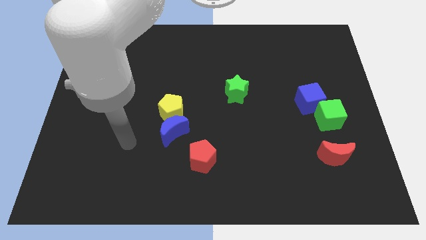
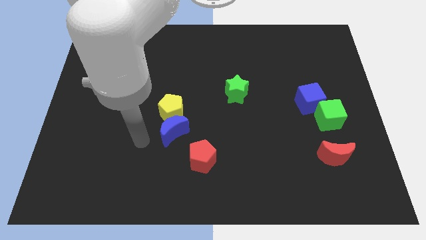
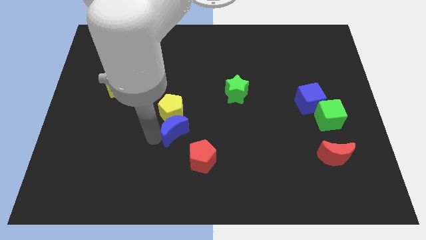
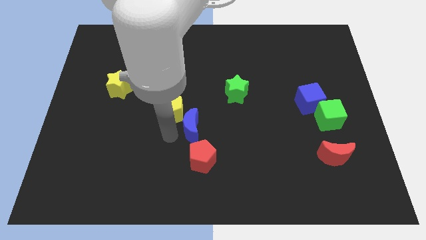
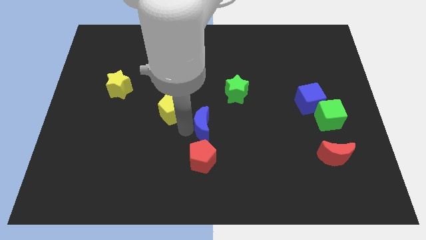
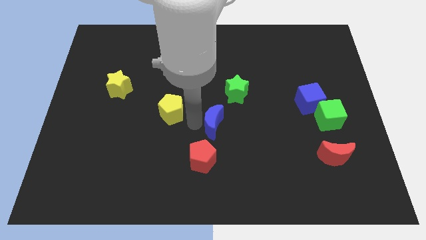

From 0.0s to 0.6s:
move the yellow pentagon away from the blue moon

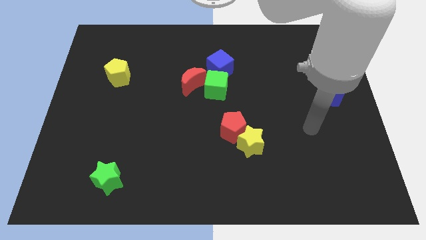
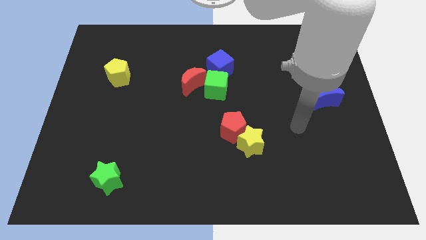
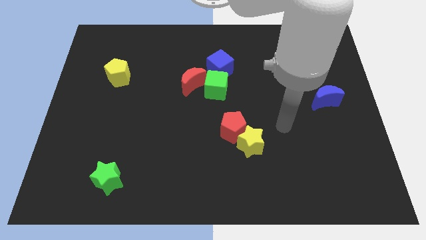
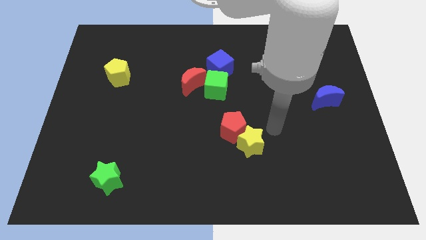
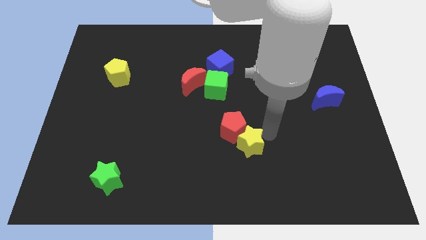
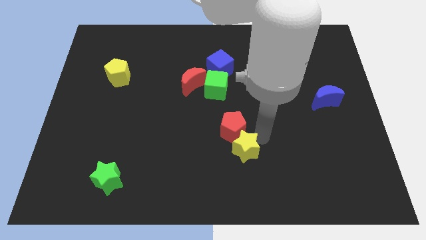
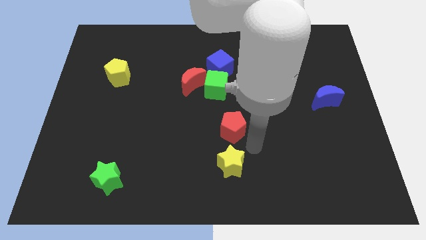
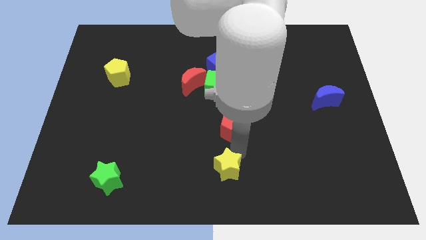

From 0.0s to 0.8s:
move the red pentagon away from the yellow star

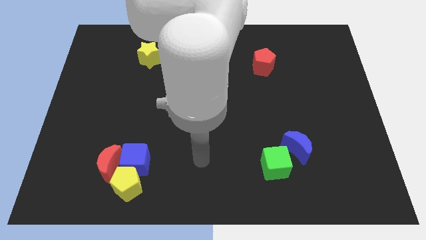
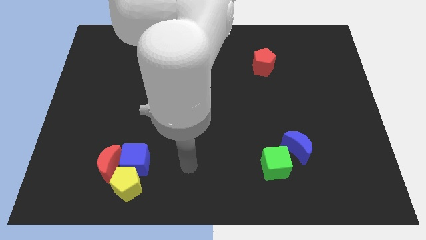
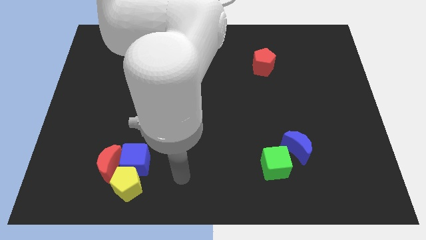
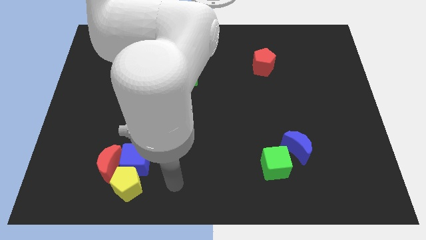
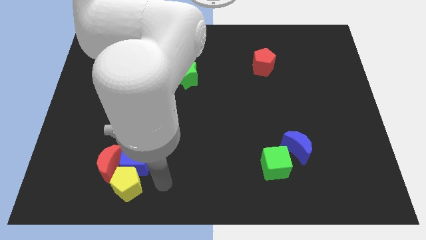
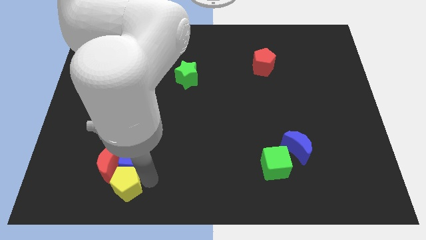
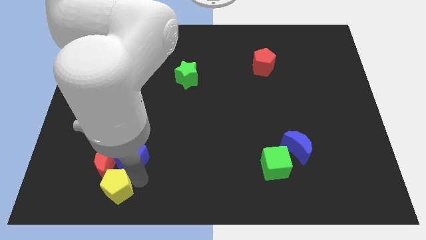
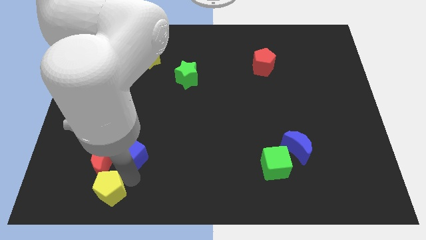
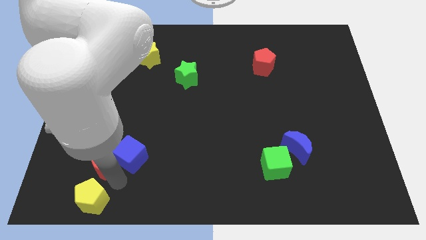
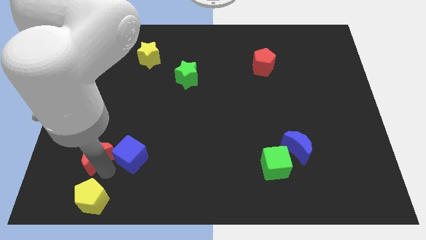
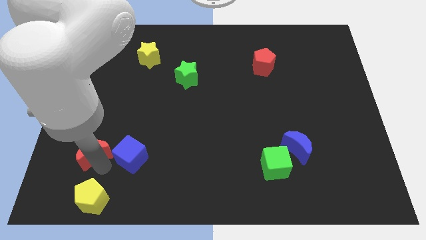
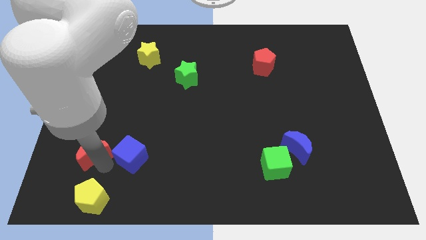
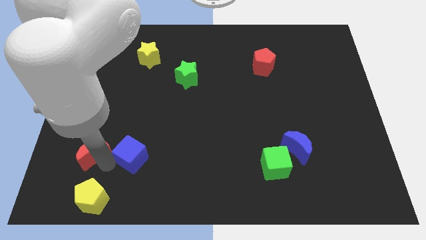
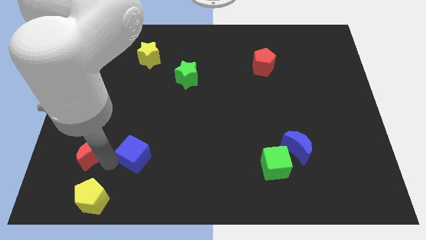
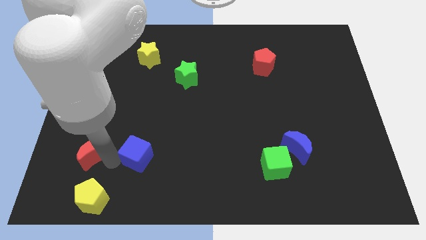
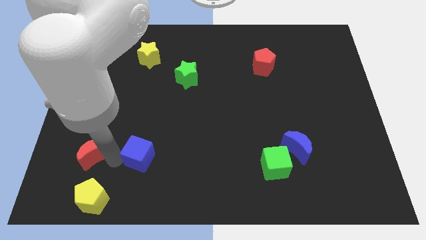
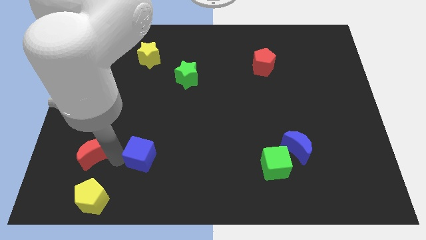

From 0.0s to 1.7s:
separate the blue cube from the yellow pentagon and red moon

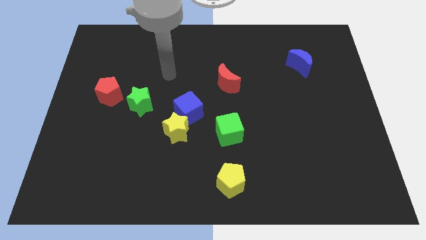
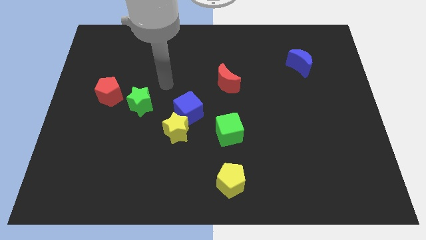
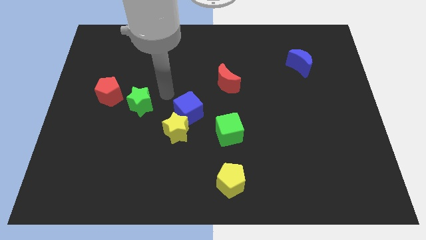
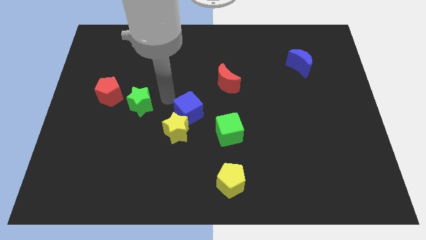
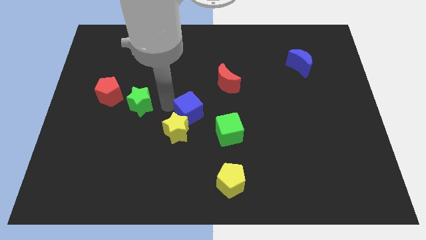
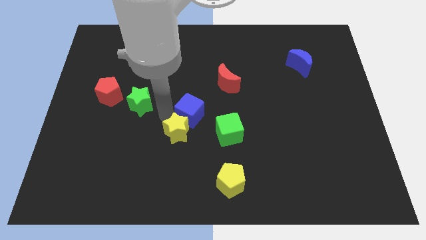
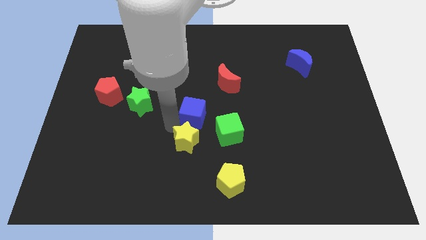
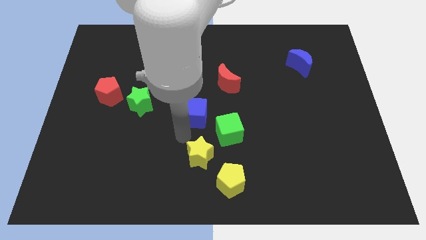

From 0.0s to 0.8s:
separate the blue cube from the yellow star

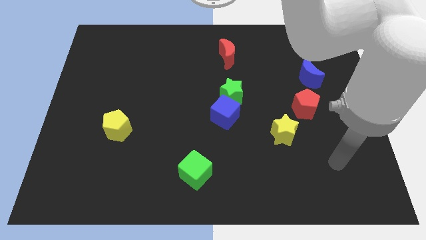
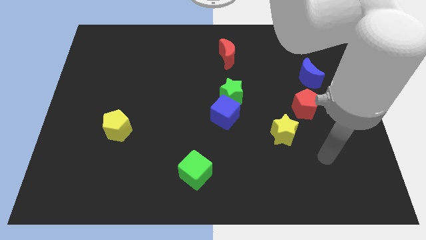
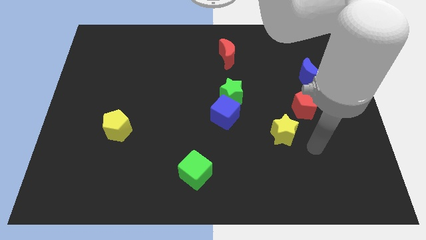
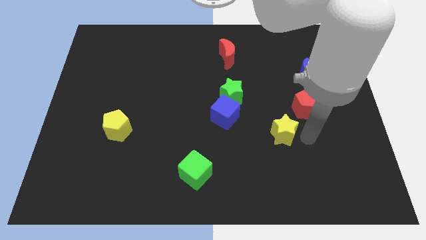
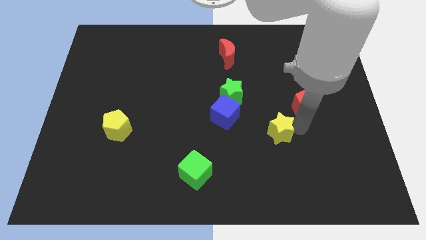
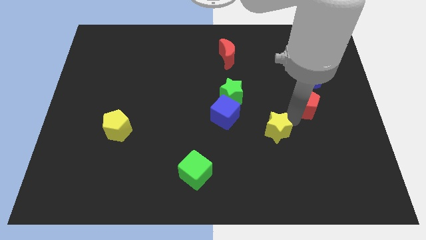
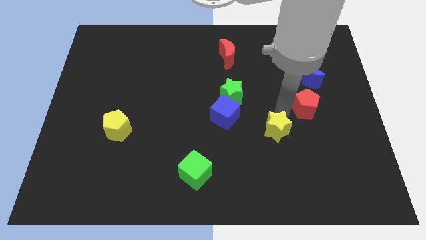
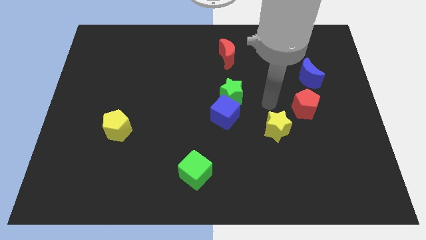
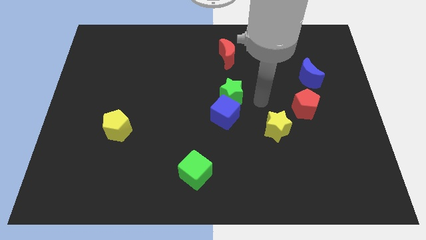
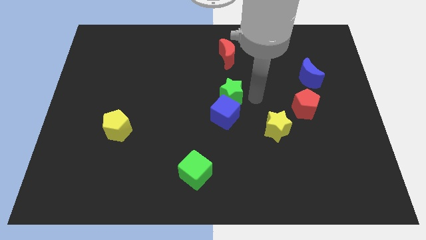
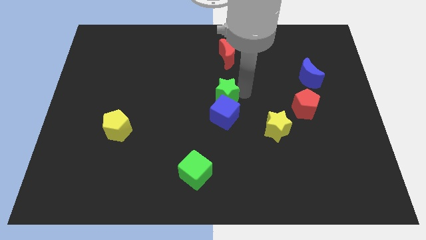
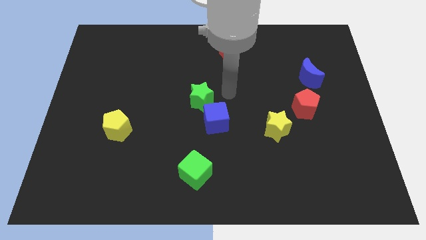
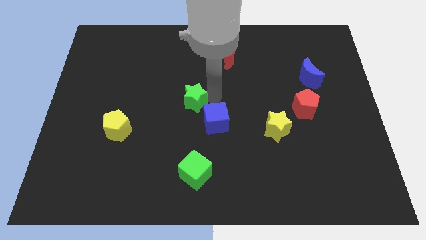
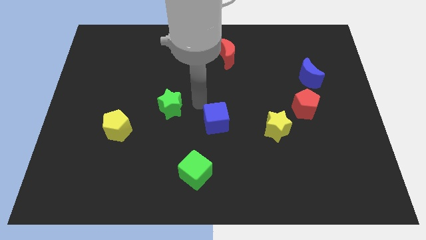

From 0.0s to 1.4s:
pull the blue cube apart from the green star

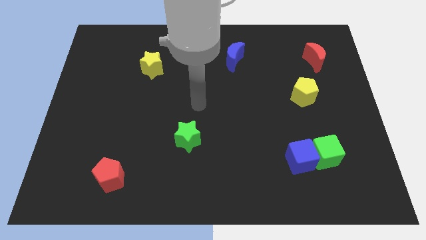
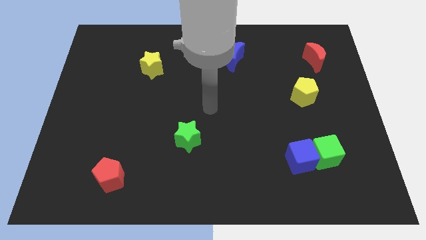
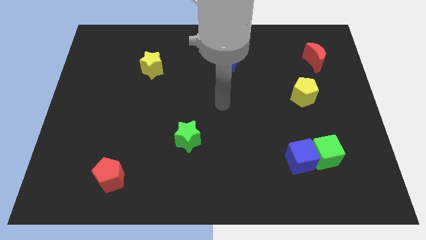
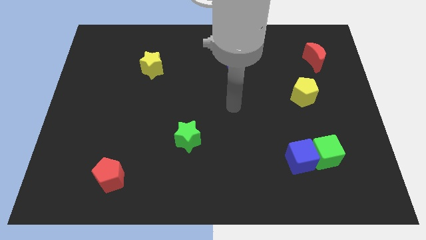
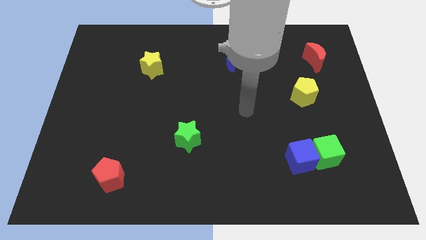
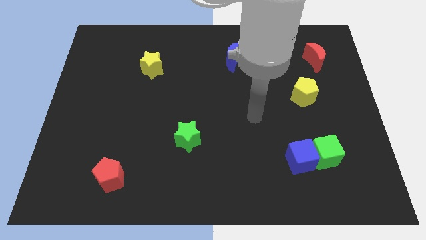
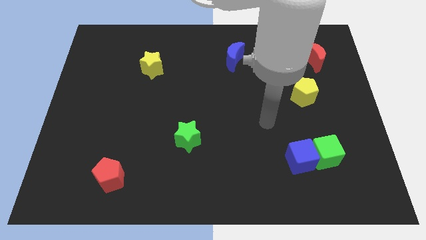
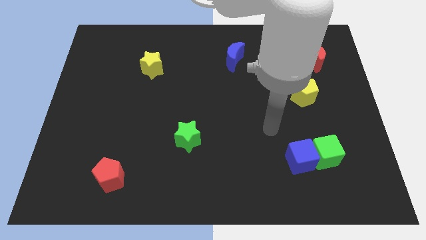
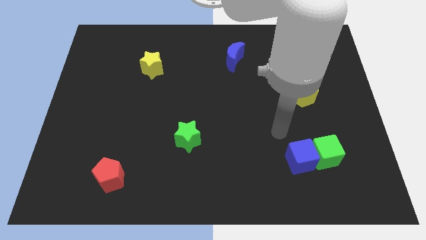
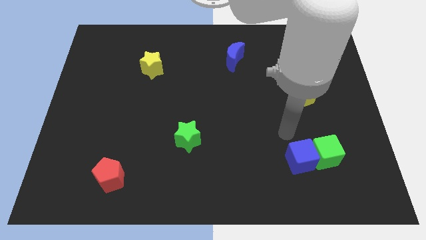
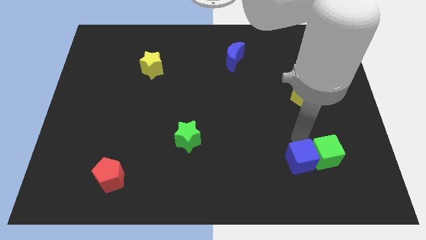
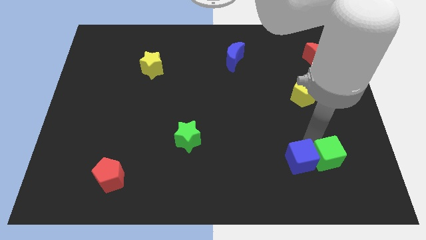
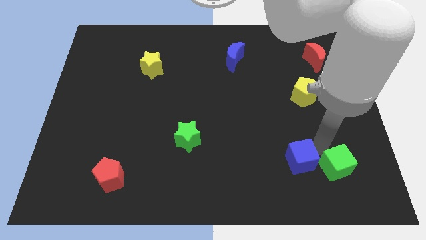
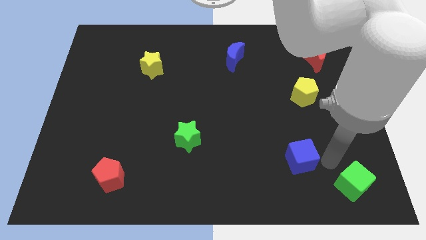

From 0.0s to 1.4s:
move the blue cube away from the green cube

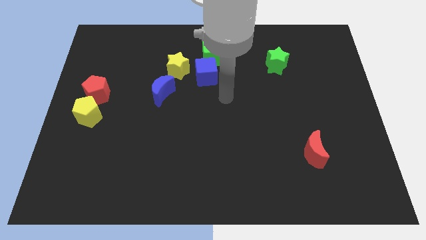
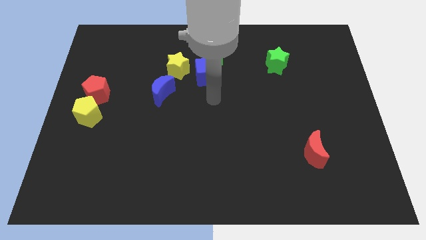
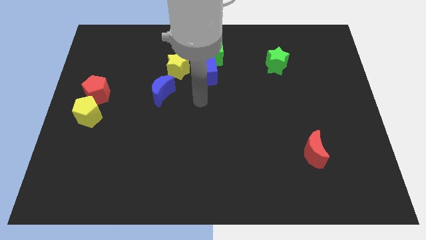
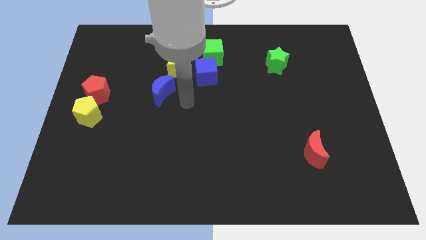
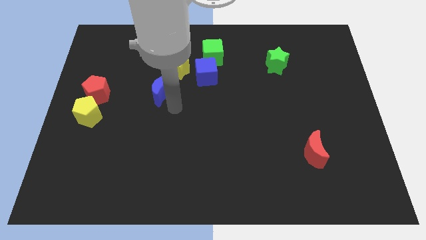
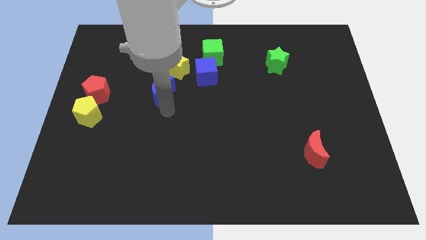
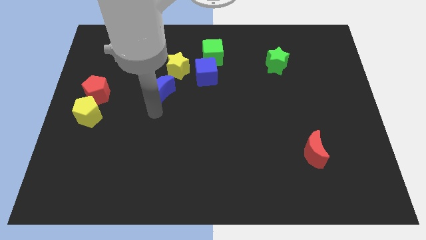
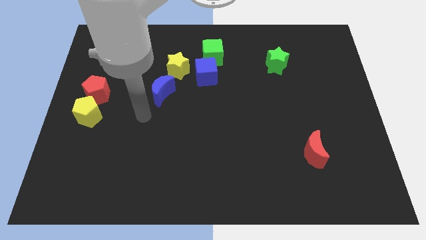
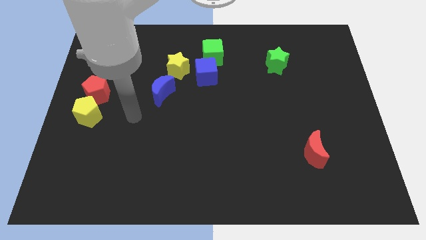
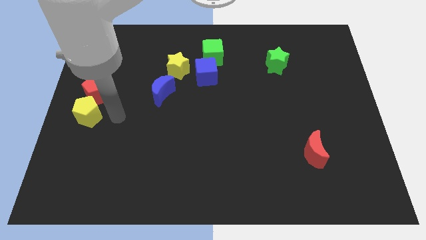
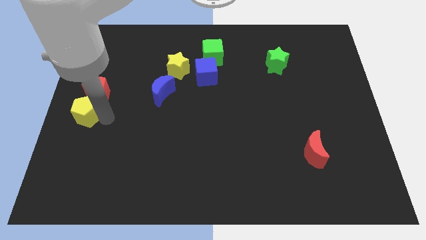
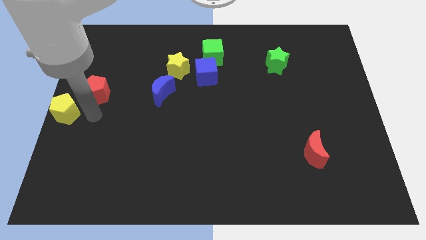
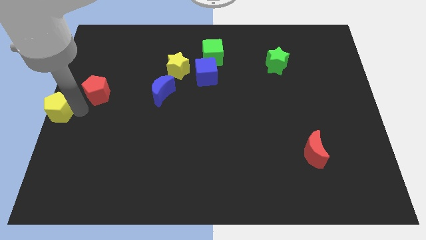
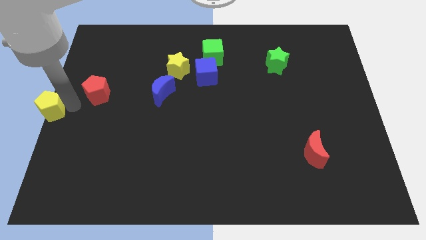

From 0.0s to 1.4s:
pull the red pentagon apart from the yellow pentagon

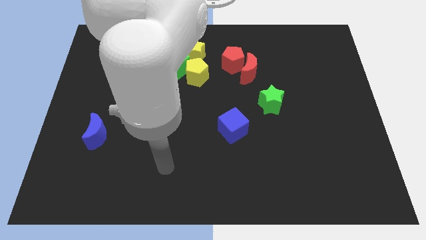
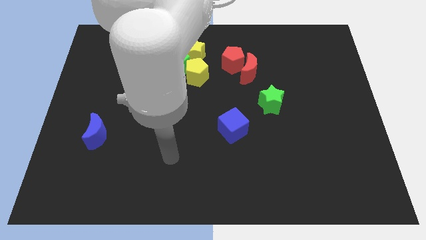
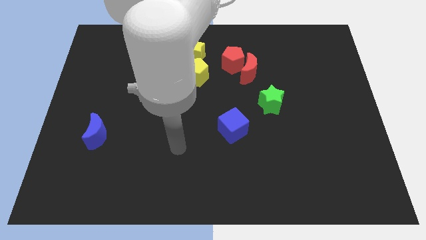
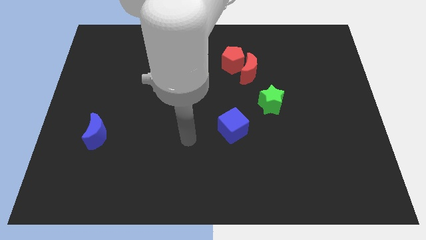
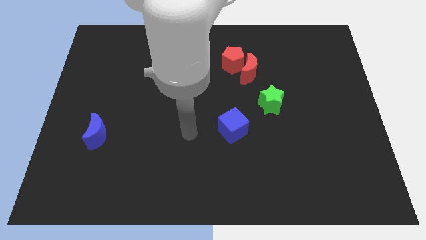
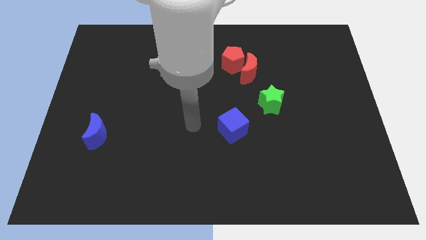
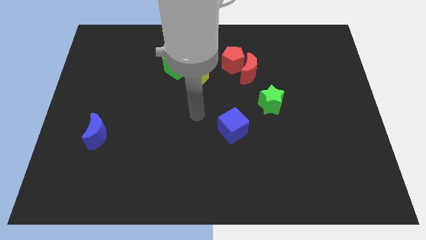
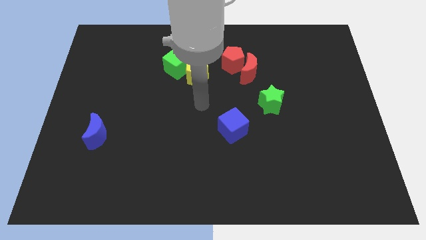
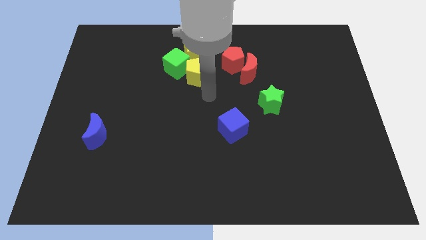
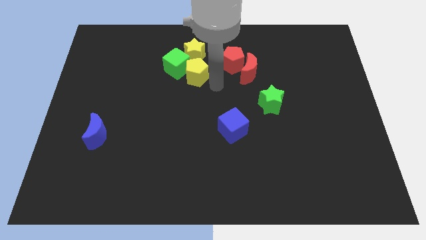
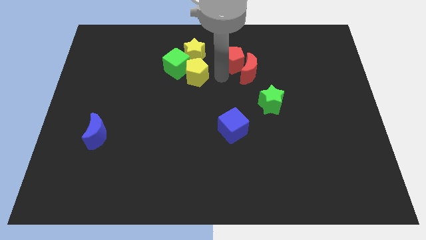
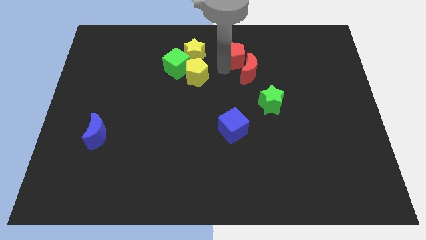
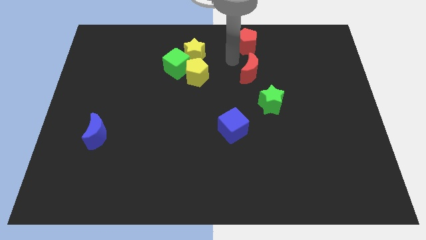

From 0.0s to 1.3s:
move the red moon away from the red pentagon
